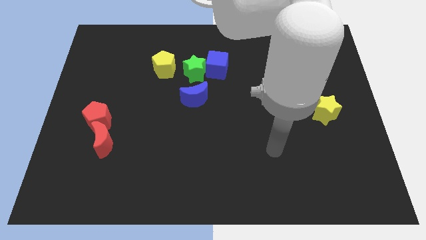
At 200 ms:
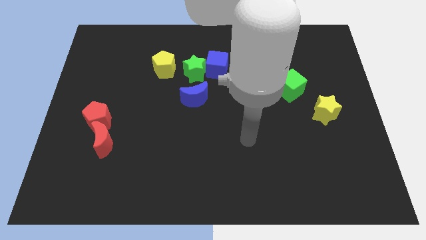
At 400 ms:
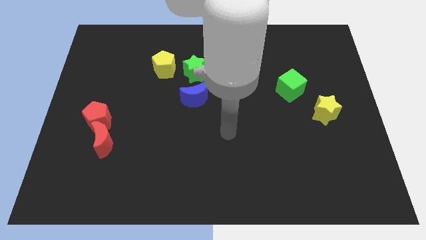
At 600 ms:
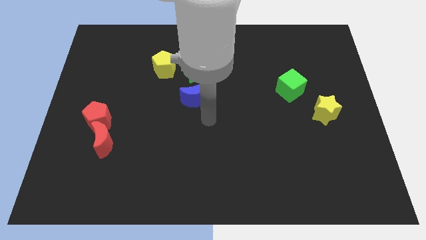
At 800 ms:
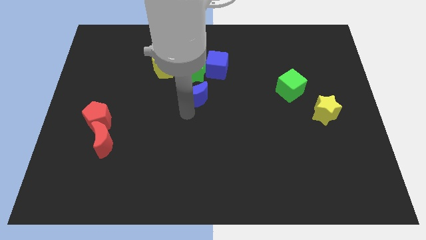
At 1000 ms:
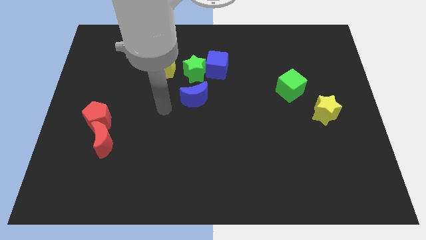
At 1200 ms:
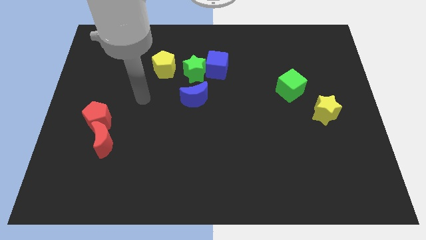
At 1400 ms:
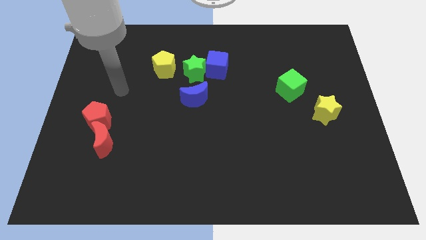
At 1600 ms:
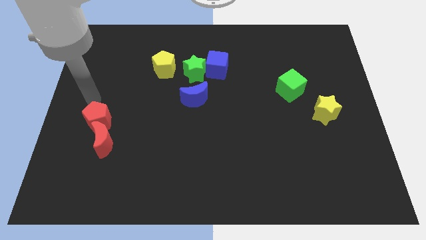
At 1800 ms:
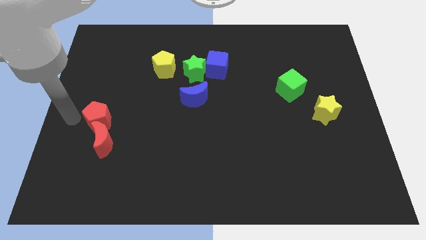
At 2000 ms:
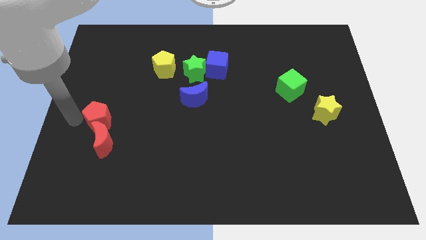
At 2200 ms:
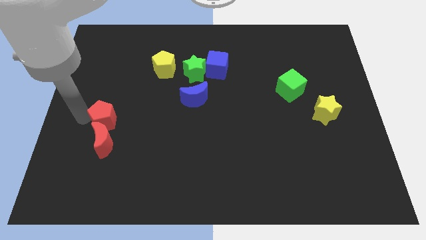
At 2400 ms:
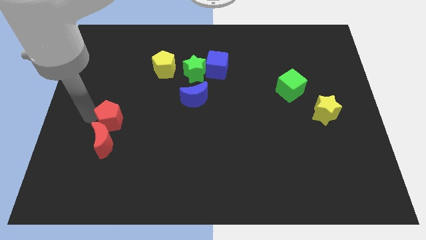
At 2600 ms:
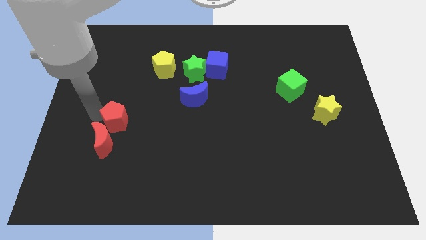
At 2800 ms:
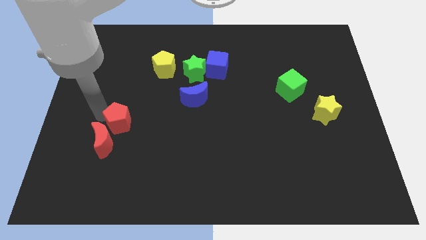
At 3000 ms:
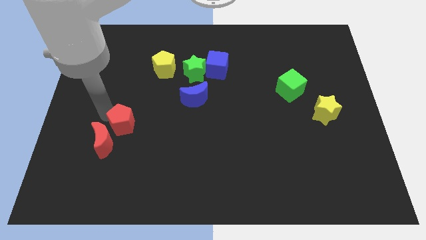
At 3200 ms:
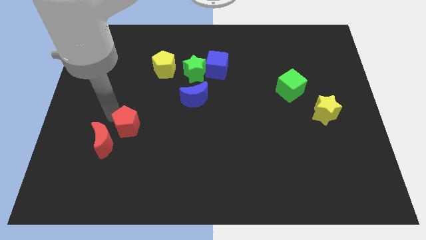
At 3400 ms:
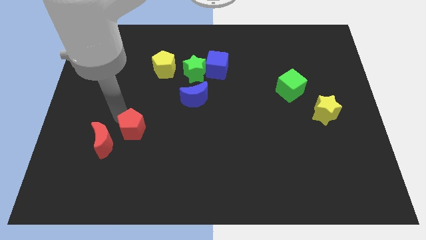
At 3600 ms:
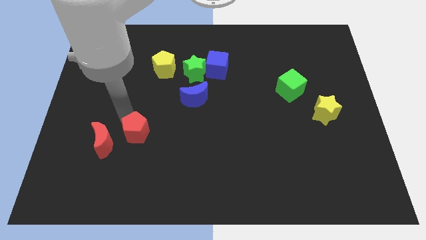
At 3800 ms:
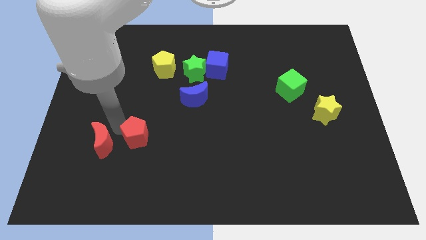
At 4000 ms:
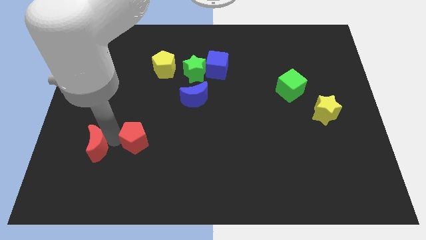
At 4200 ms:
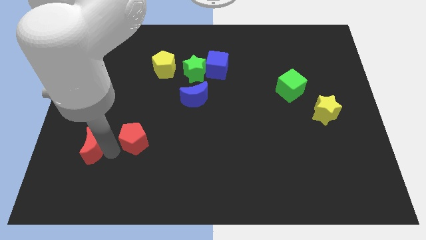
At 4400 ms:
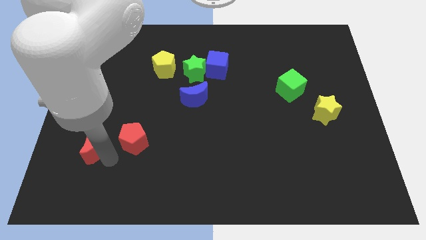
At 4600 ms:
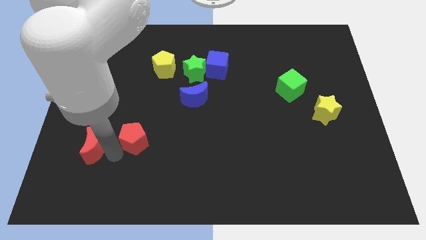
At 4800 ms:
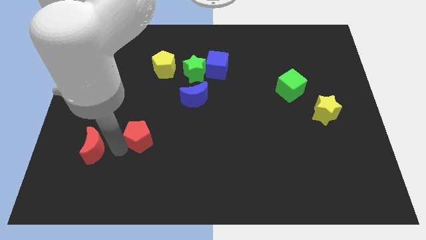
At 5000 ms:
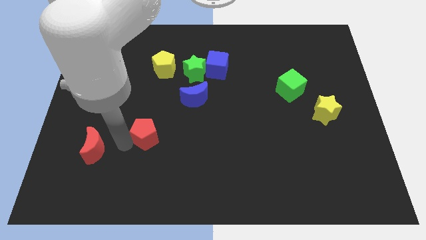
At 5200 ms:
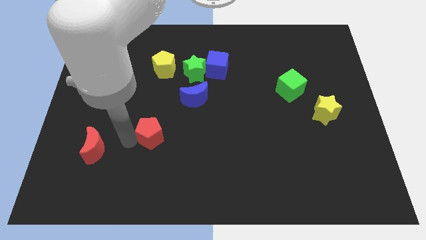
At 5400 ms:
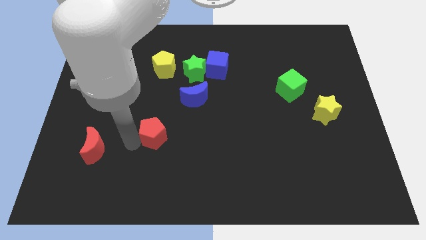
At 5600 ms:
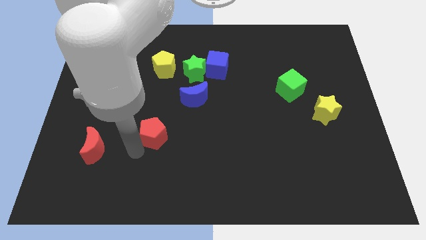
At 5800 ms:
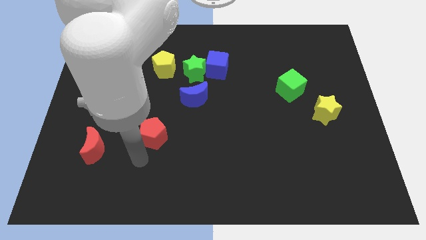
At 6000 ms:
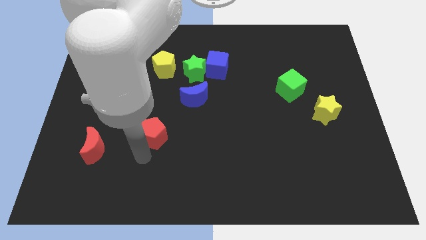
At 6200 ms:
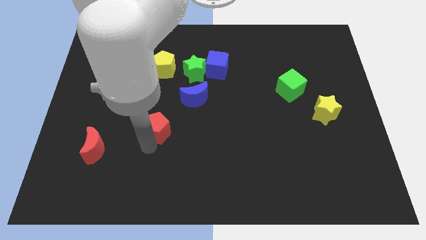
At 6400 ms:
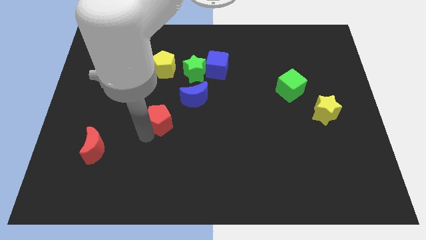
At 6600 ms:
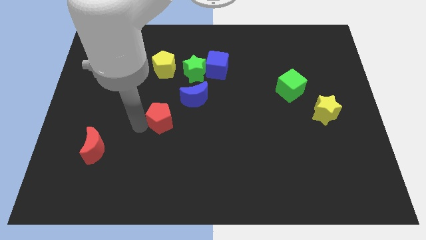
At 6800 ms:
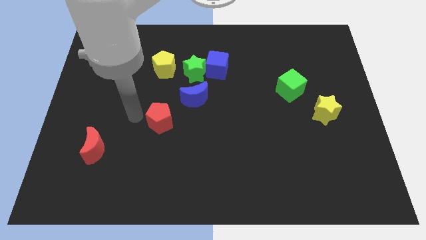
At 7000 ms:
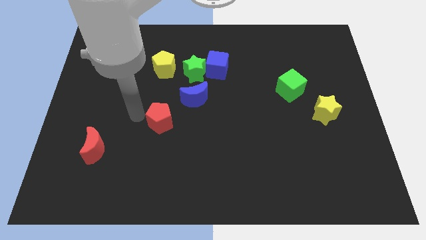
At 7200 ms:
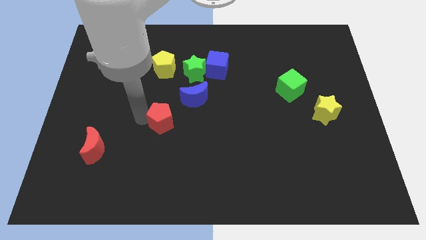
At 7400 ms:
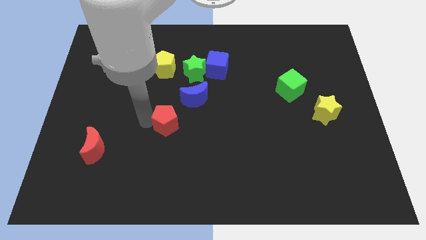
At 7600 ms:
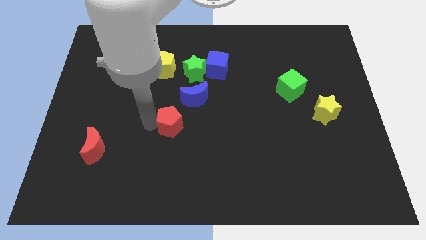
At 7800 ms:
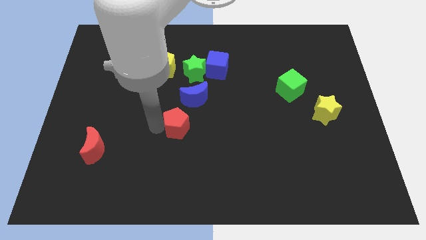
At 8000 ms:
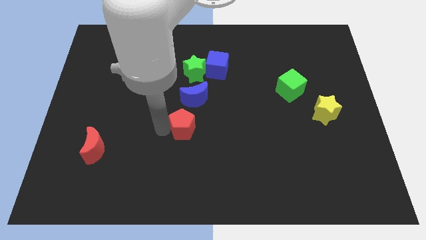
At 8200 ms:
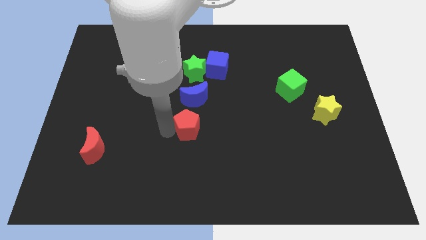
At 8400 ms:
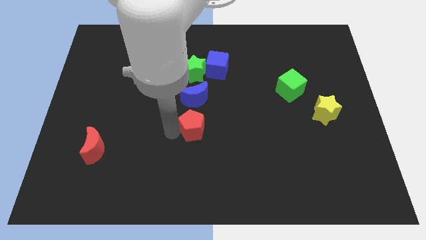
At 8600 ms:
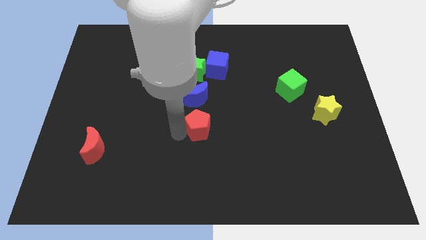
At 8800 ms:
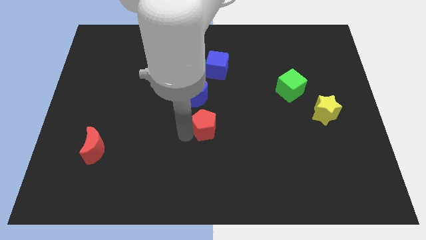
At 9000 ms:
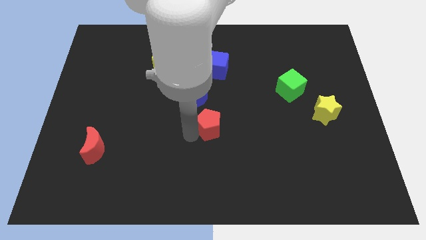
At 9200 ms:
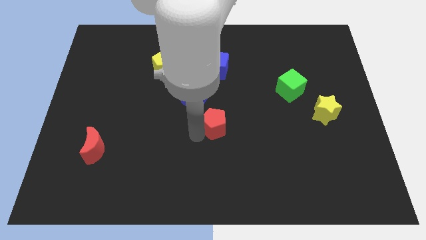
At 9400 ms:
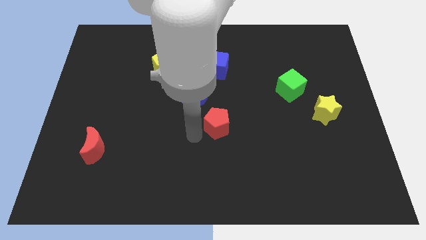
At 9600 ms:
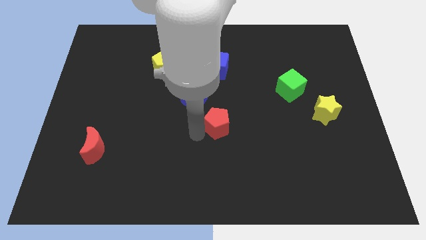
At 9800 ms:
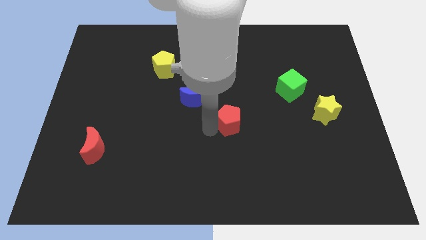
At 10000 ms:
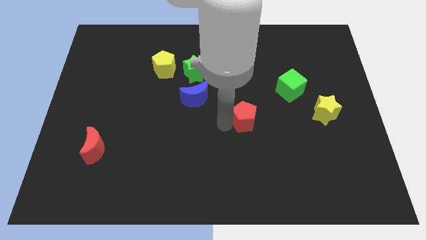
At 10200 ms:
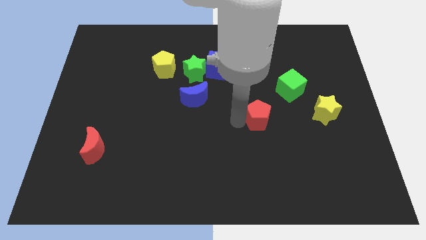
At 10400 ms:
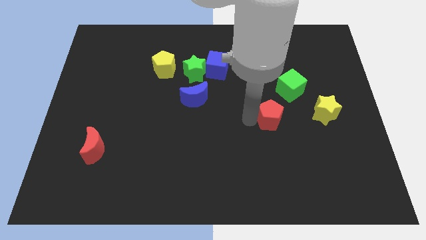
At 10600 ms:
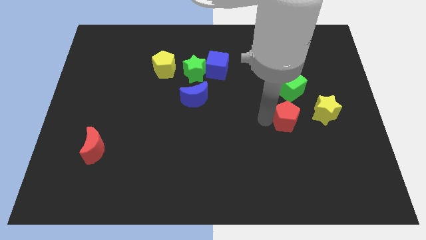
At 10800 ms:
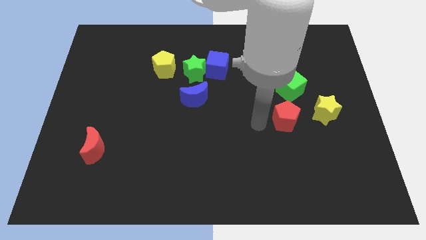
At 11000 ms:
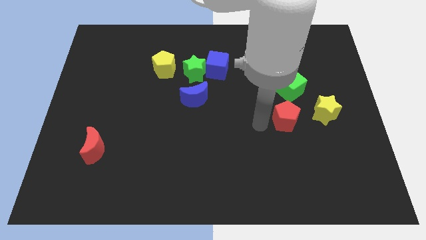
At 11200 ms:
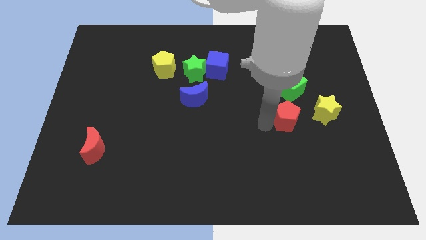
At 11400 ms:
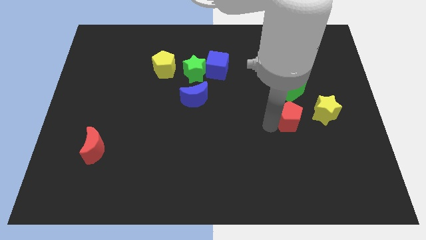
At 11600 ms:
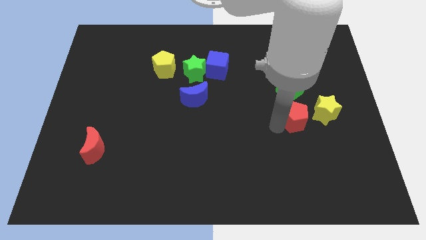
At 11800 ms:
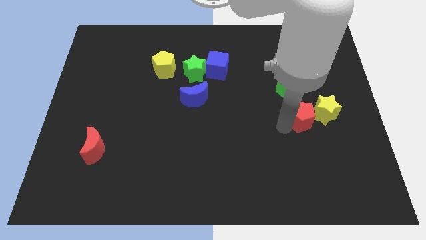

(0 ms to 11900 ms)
slide the red pentagon to the yellow star

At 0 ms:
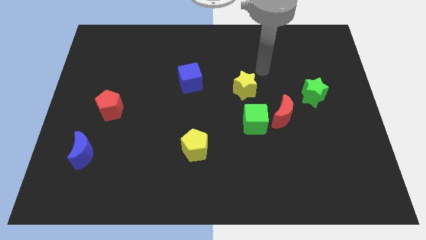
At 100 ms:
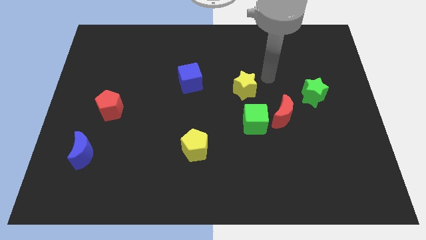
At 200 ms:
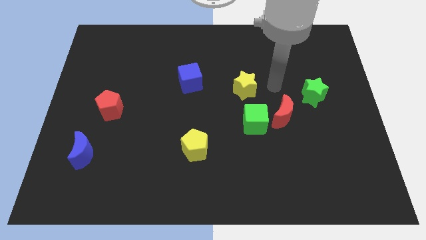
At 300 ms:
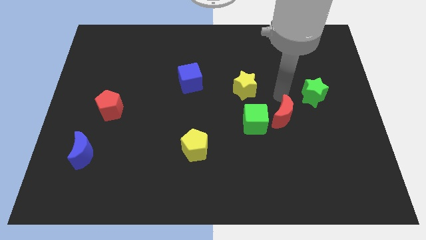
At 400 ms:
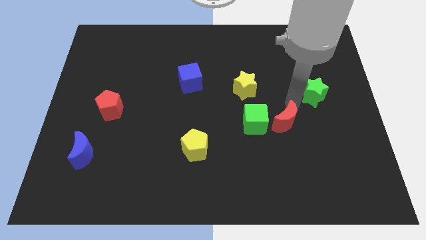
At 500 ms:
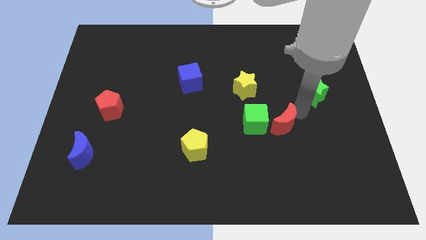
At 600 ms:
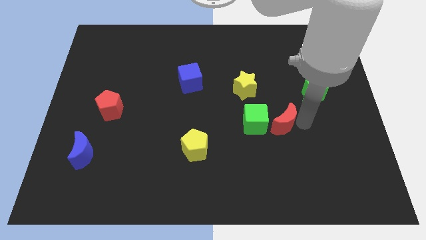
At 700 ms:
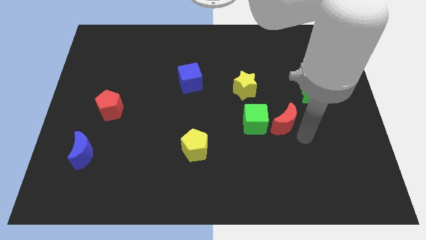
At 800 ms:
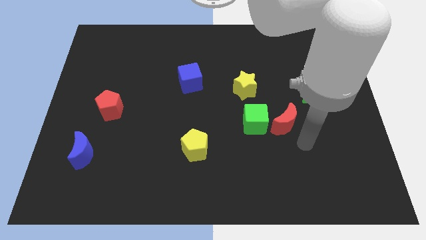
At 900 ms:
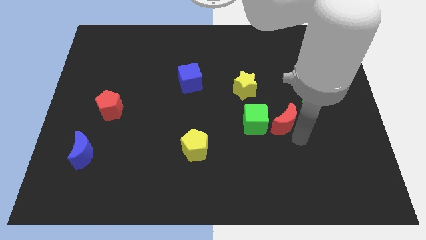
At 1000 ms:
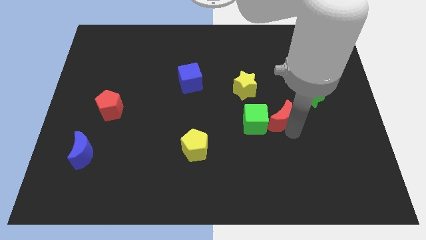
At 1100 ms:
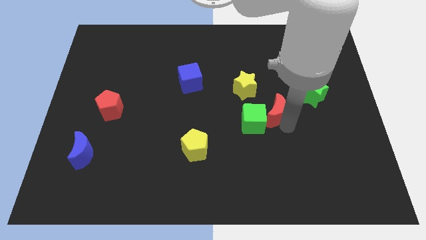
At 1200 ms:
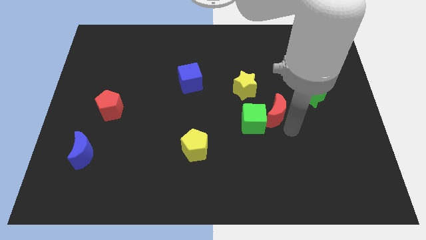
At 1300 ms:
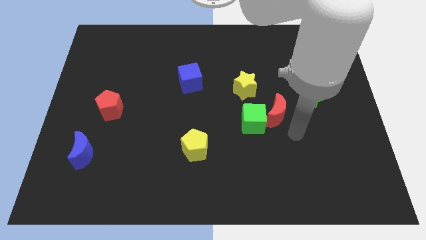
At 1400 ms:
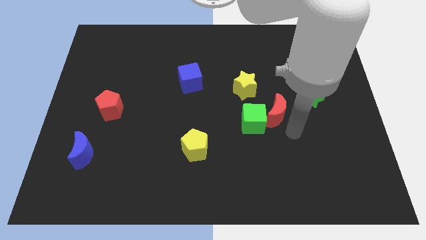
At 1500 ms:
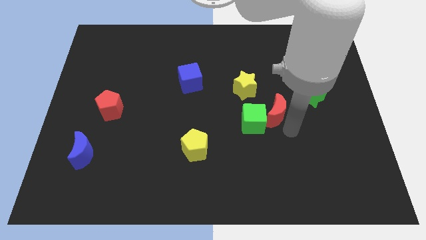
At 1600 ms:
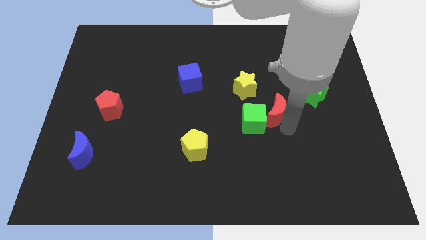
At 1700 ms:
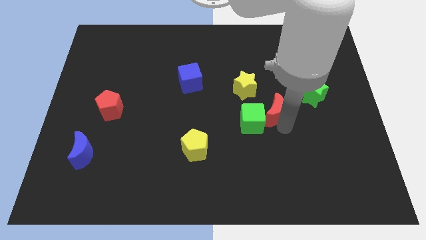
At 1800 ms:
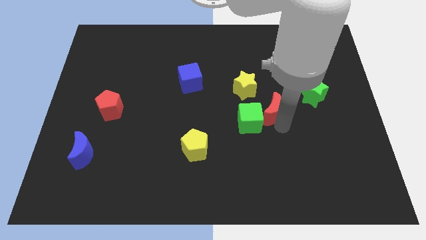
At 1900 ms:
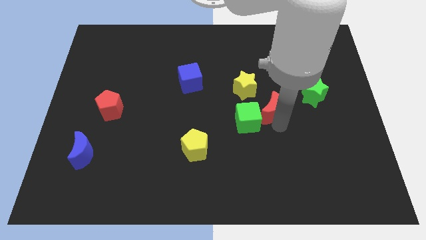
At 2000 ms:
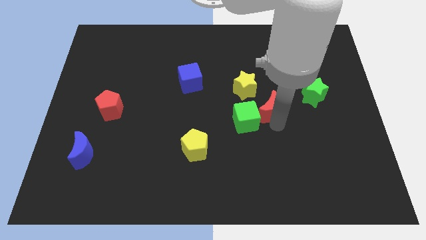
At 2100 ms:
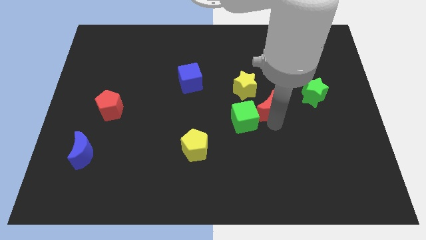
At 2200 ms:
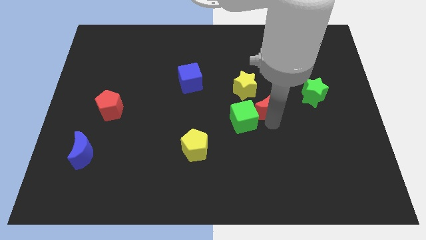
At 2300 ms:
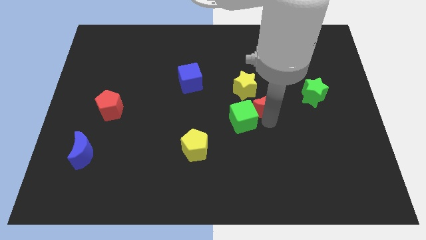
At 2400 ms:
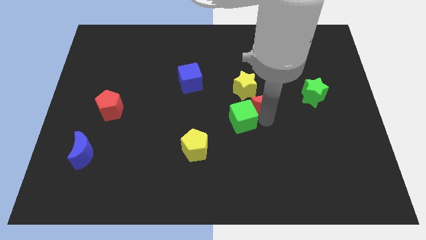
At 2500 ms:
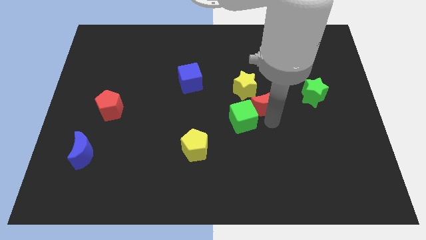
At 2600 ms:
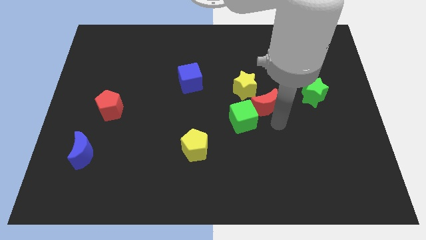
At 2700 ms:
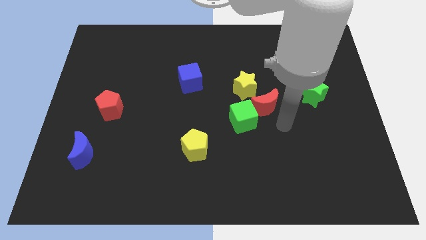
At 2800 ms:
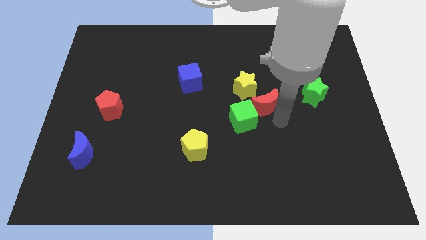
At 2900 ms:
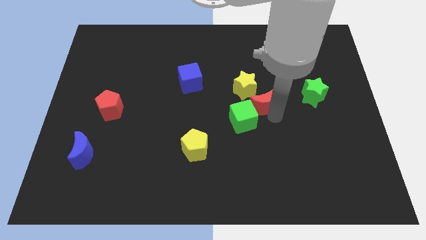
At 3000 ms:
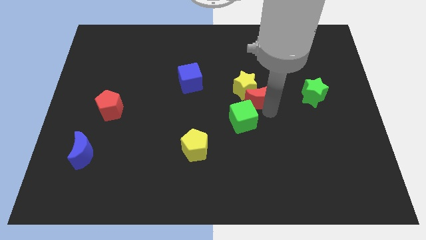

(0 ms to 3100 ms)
move the red moon to the yellow star
